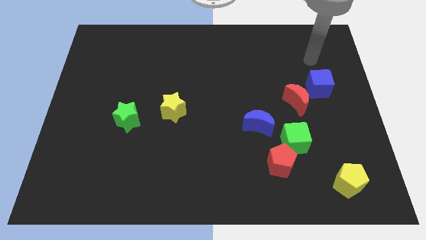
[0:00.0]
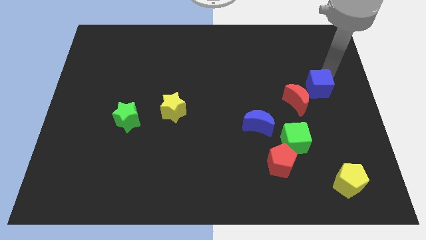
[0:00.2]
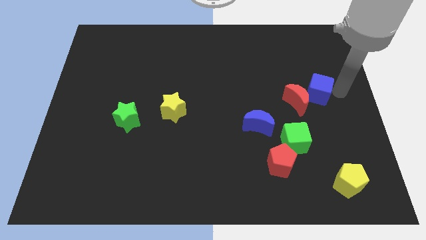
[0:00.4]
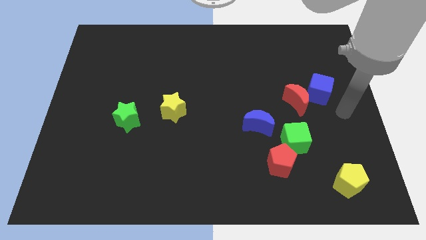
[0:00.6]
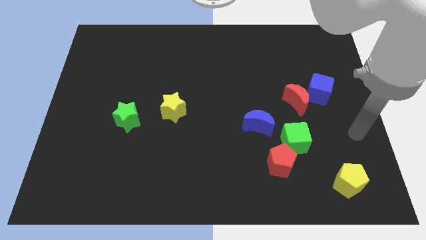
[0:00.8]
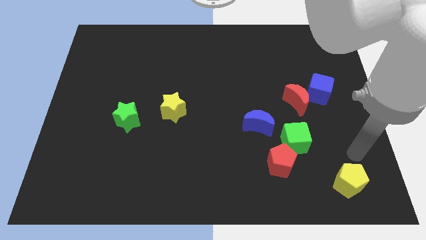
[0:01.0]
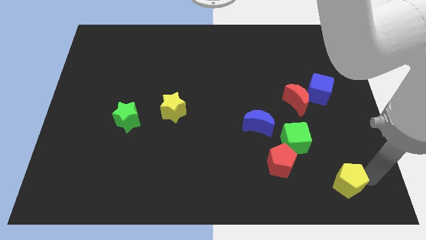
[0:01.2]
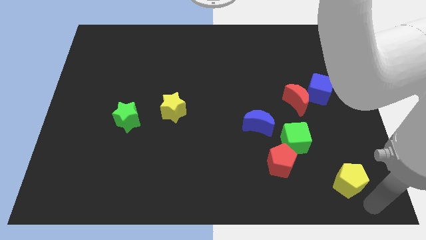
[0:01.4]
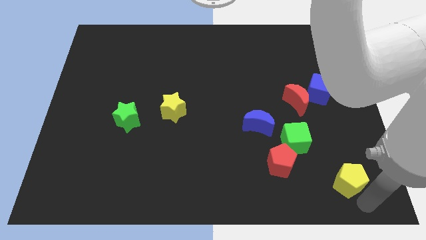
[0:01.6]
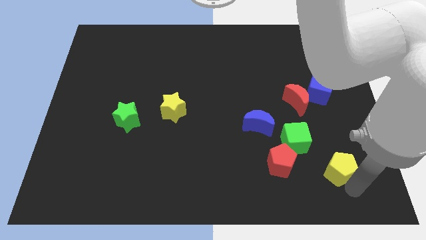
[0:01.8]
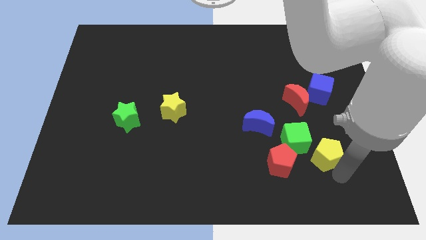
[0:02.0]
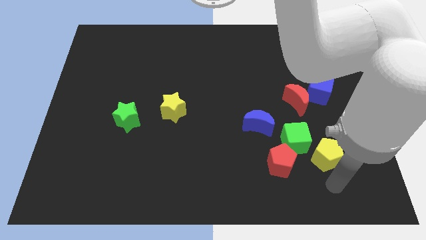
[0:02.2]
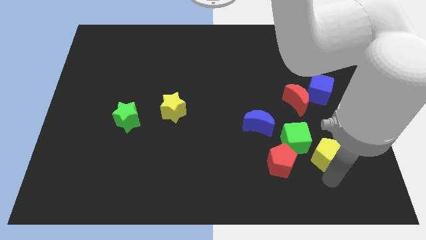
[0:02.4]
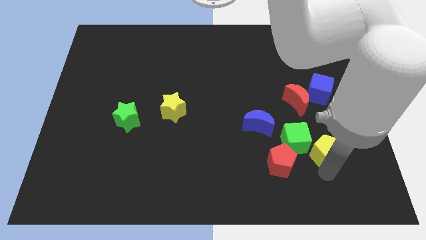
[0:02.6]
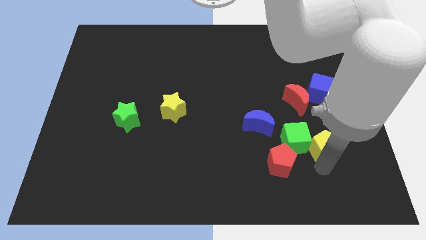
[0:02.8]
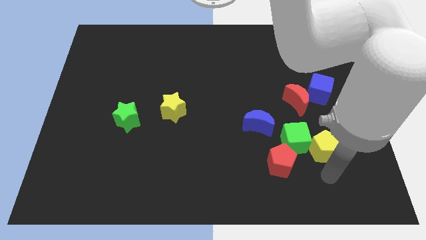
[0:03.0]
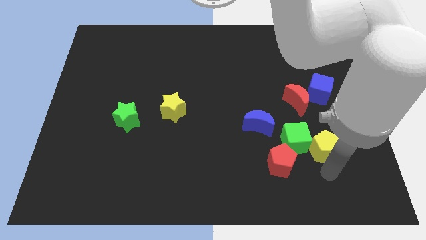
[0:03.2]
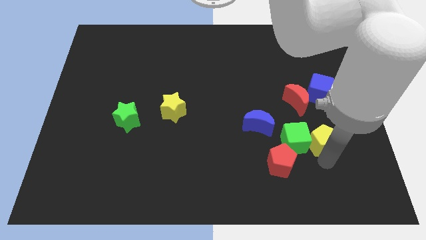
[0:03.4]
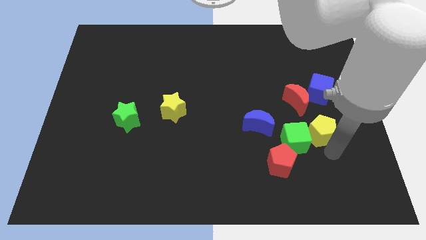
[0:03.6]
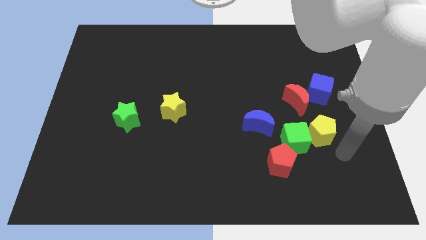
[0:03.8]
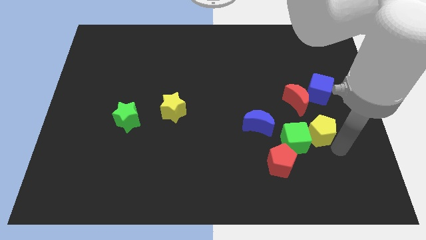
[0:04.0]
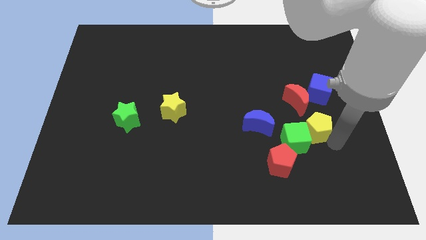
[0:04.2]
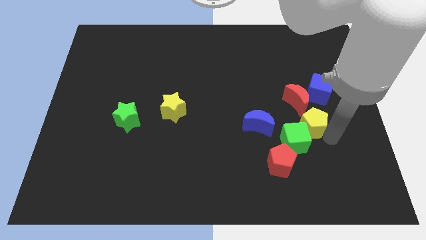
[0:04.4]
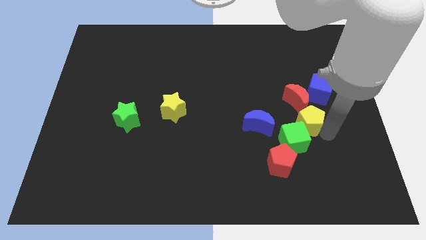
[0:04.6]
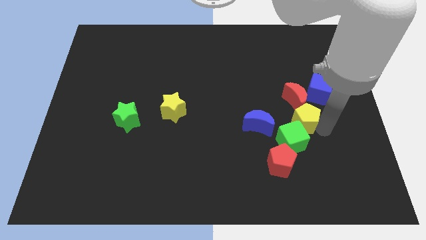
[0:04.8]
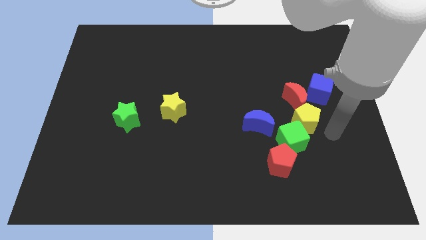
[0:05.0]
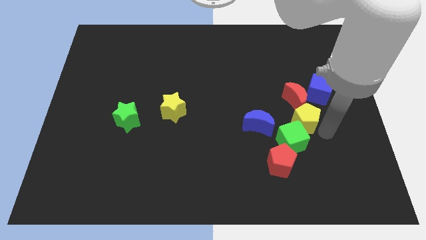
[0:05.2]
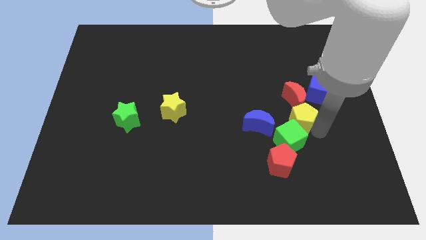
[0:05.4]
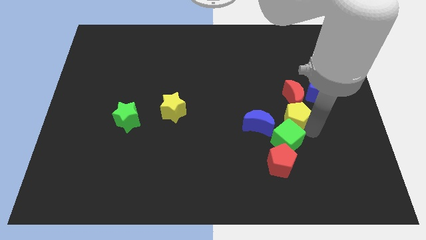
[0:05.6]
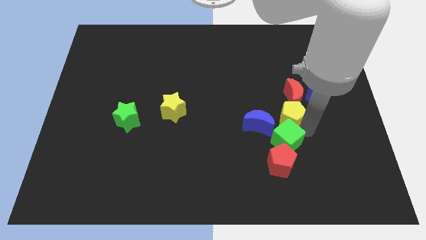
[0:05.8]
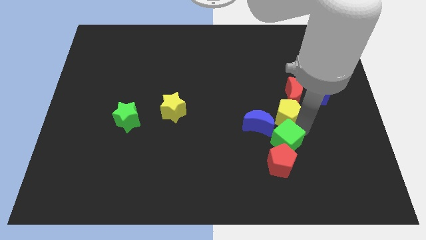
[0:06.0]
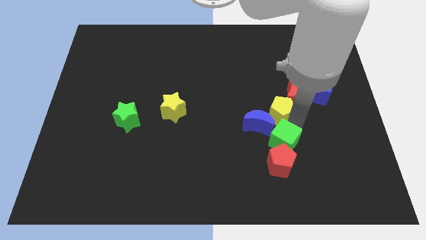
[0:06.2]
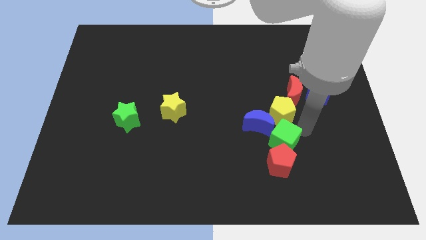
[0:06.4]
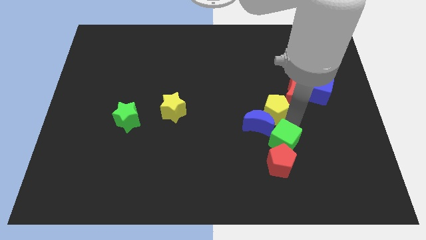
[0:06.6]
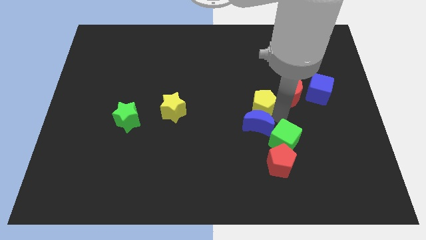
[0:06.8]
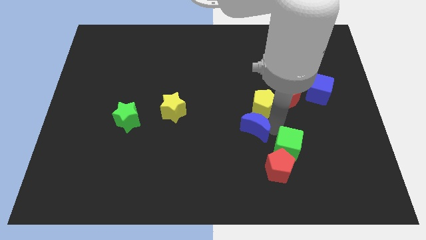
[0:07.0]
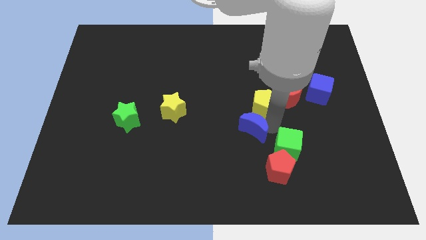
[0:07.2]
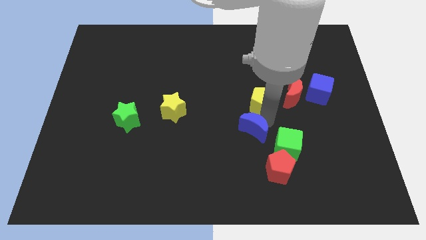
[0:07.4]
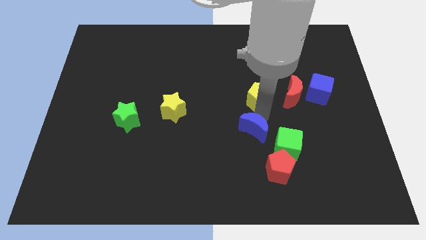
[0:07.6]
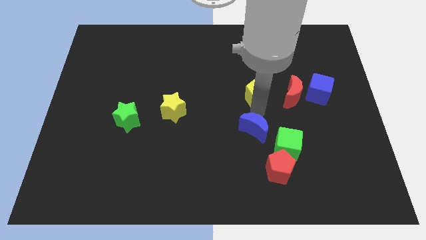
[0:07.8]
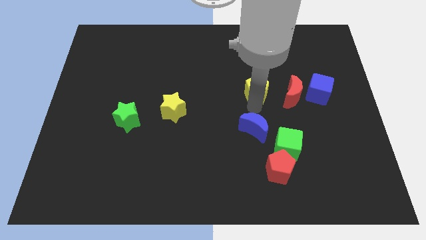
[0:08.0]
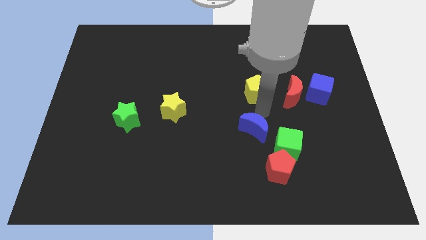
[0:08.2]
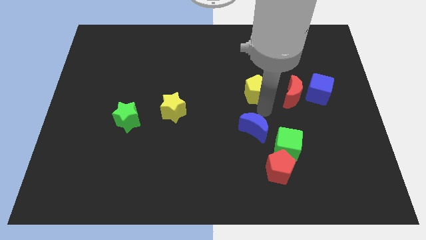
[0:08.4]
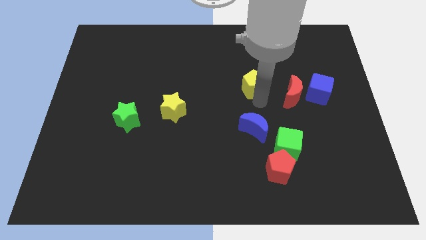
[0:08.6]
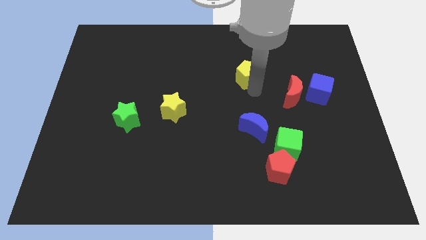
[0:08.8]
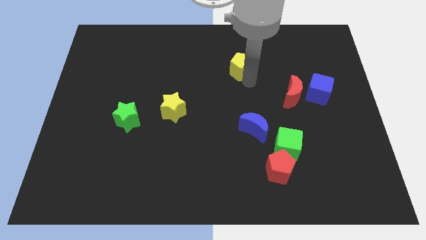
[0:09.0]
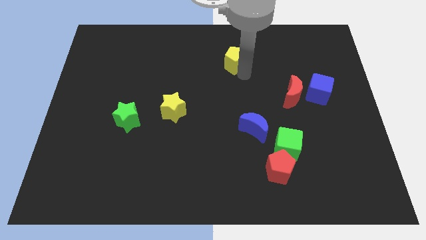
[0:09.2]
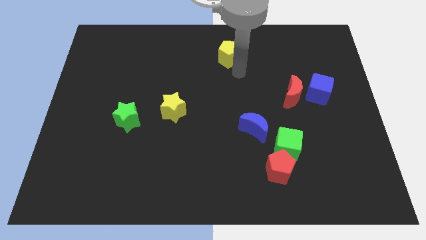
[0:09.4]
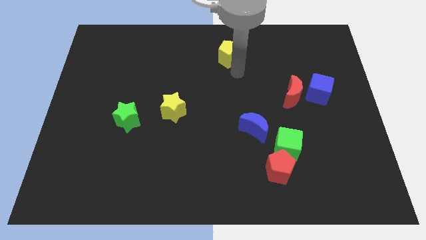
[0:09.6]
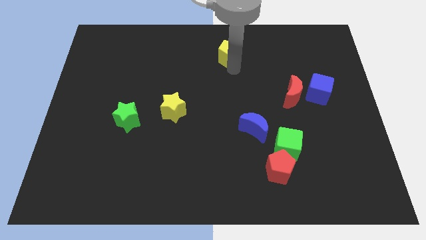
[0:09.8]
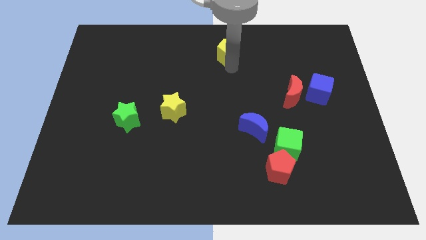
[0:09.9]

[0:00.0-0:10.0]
push the yellow pentagon to the towards your base

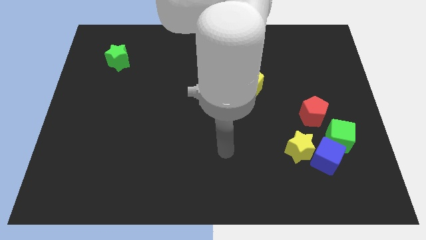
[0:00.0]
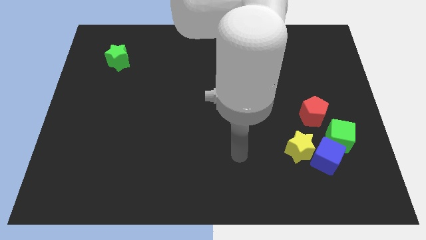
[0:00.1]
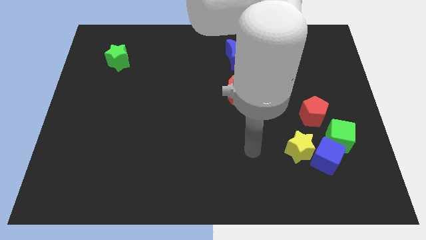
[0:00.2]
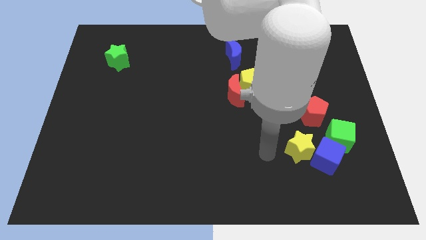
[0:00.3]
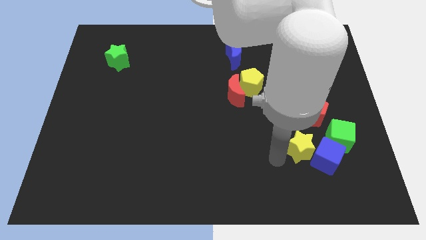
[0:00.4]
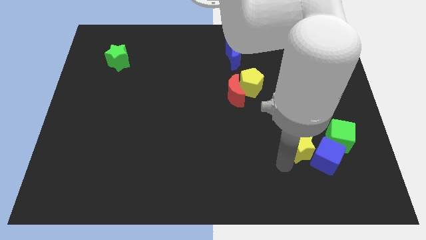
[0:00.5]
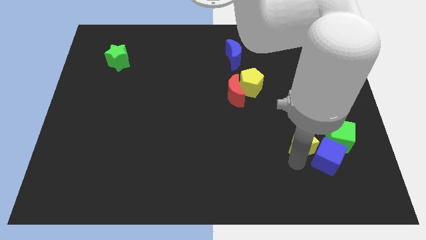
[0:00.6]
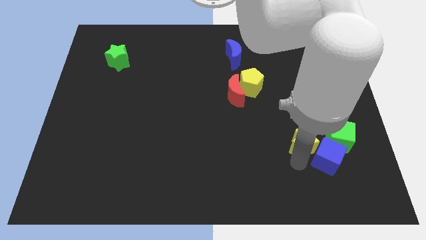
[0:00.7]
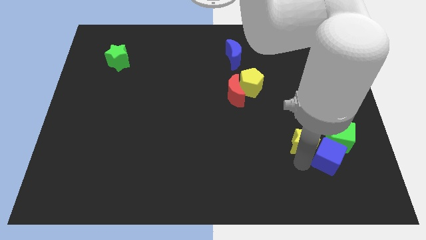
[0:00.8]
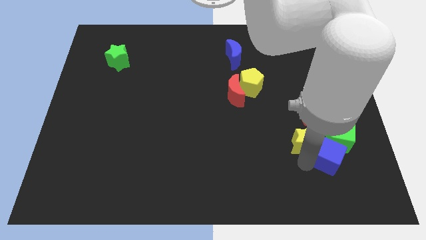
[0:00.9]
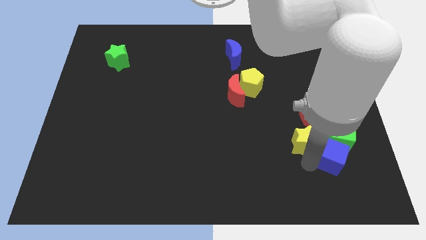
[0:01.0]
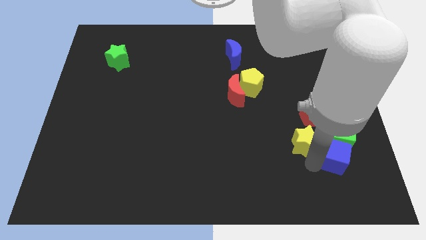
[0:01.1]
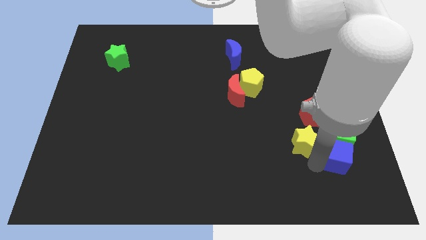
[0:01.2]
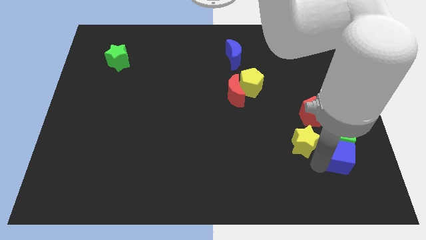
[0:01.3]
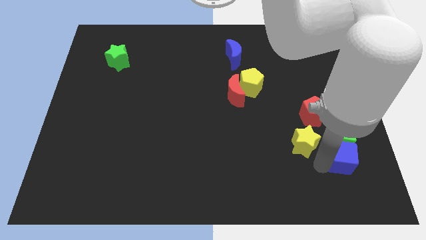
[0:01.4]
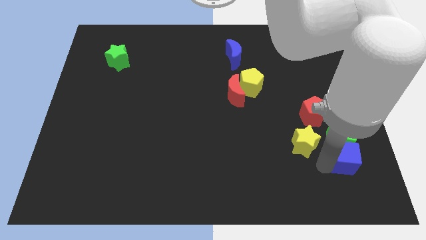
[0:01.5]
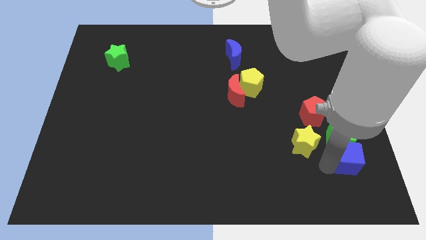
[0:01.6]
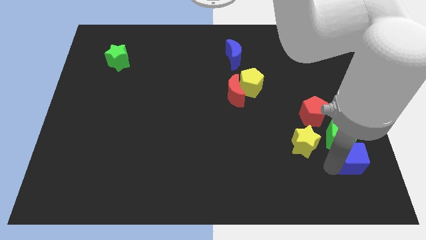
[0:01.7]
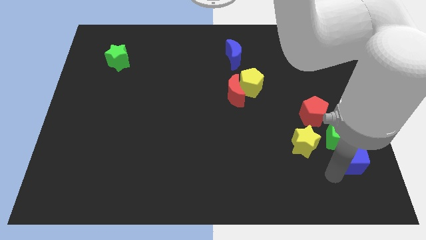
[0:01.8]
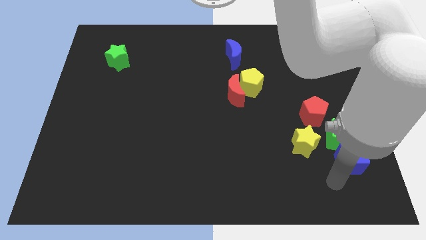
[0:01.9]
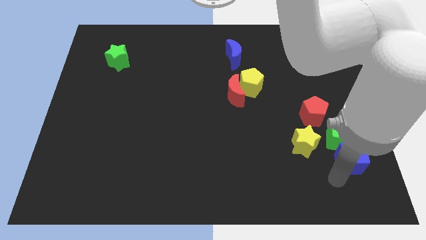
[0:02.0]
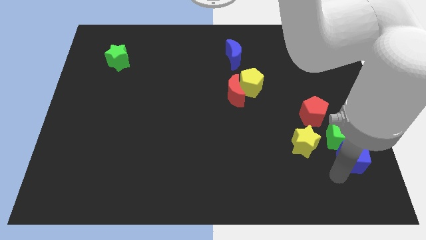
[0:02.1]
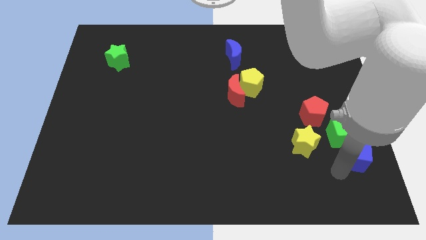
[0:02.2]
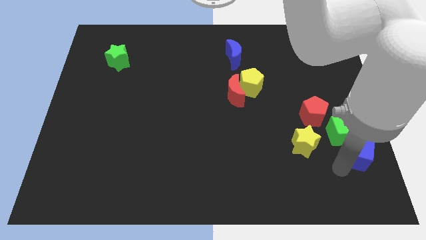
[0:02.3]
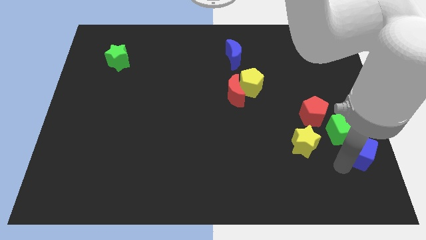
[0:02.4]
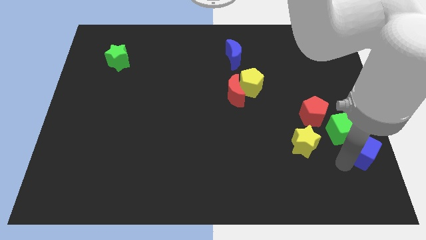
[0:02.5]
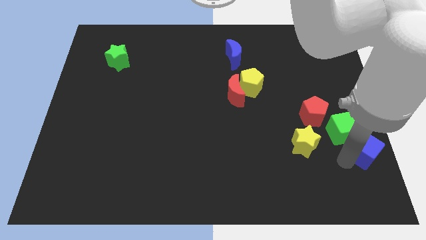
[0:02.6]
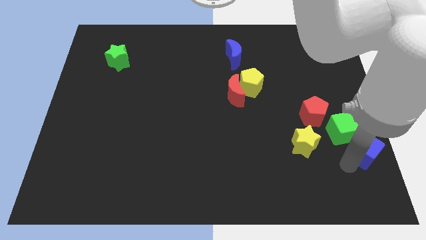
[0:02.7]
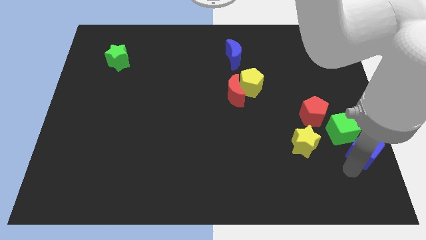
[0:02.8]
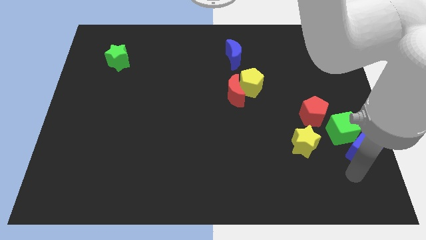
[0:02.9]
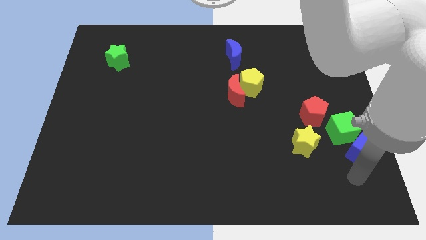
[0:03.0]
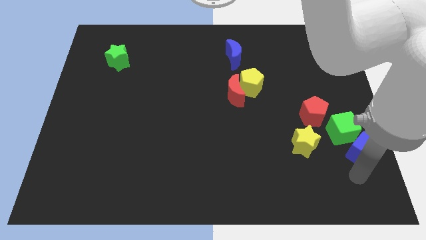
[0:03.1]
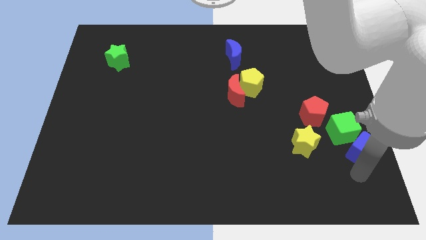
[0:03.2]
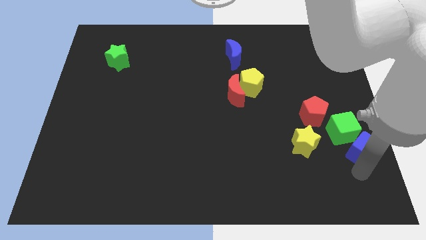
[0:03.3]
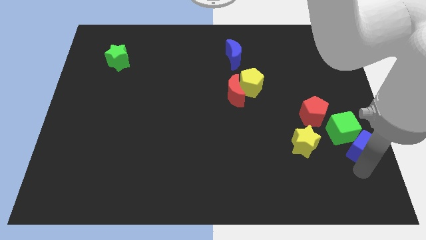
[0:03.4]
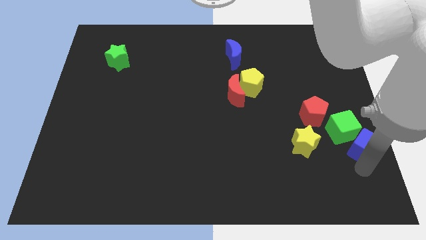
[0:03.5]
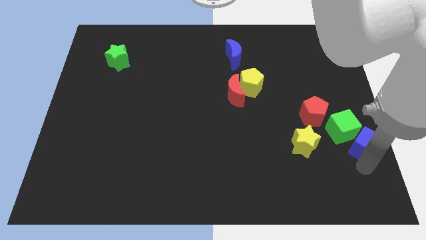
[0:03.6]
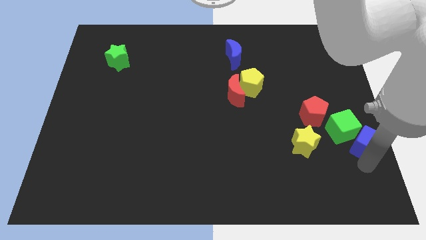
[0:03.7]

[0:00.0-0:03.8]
slide the blue cube to the center right
